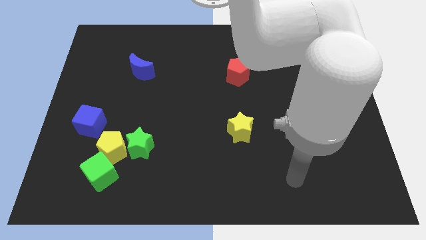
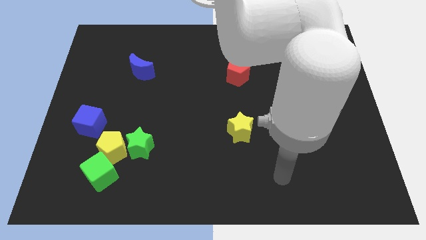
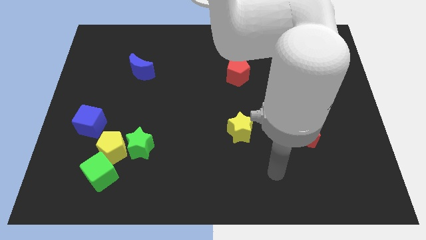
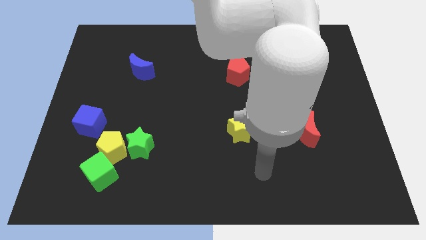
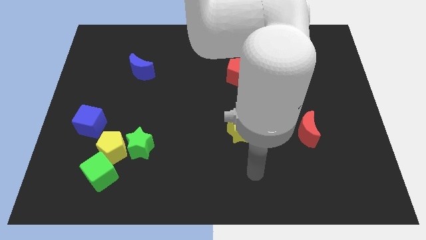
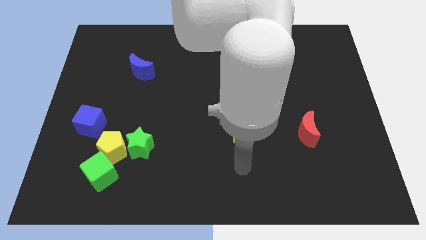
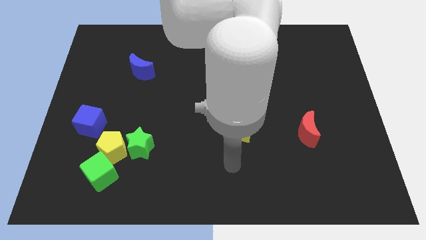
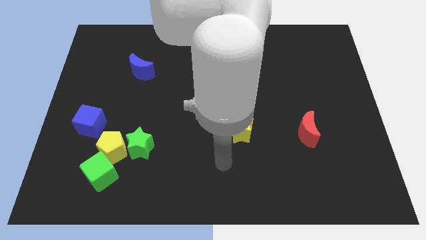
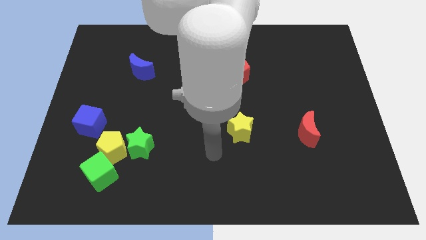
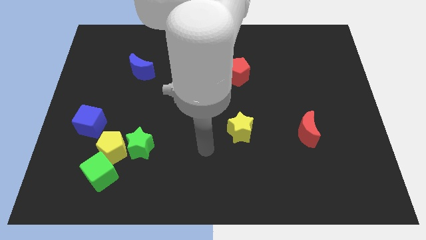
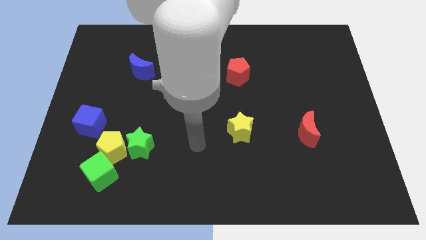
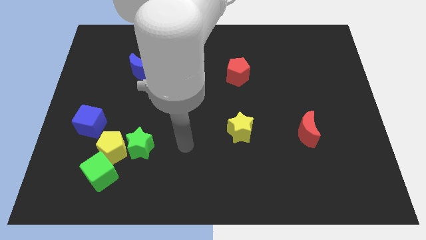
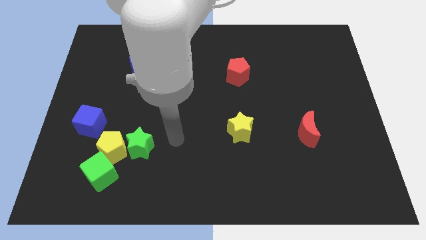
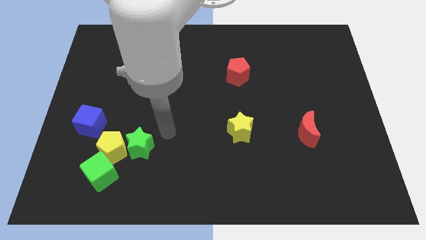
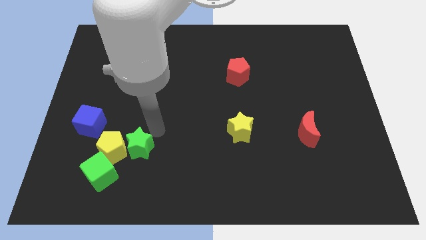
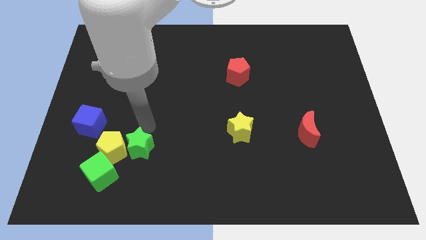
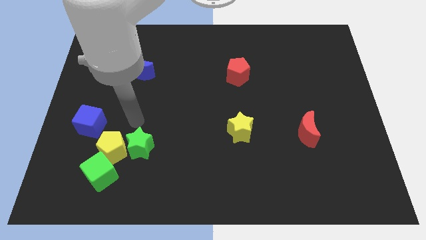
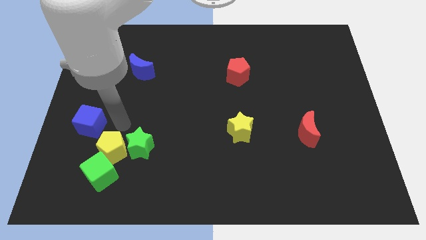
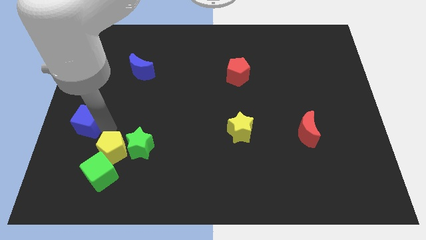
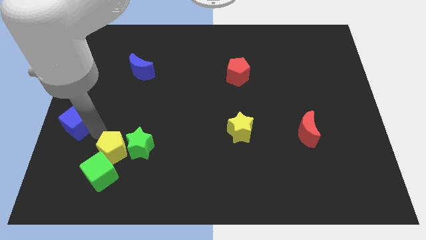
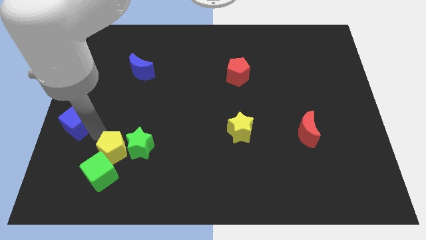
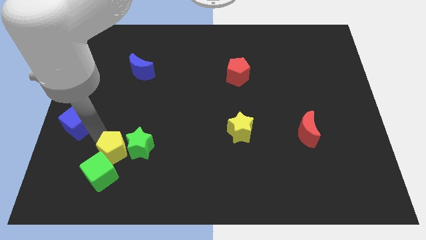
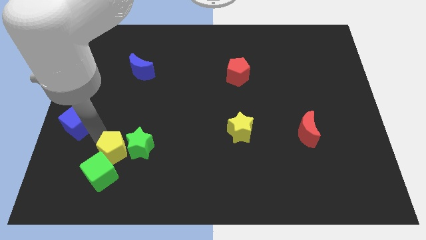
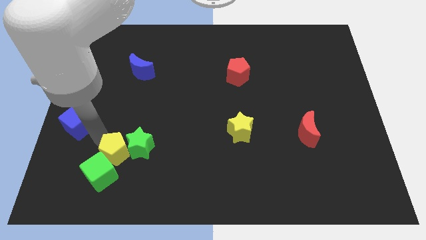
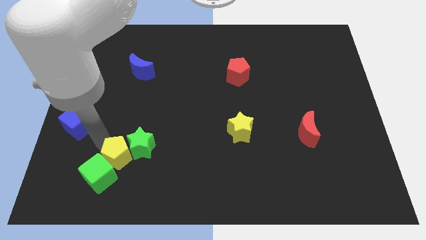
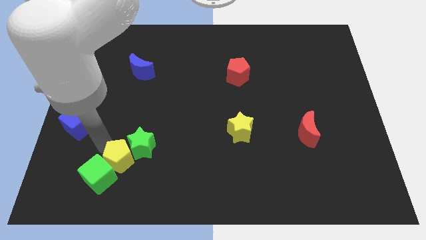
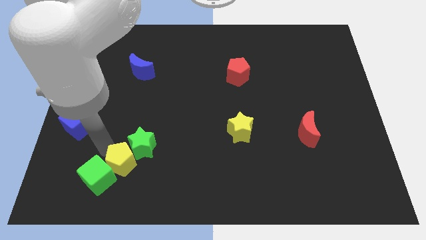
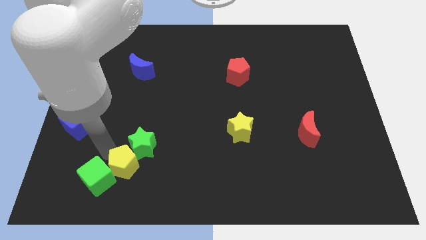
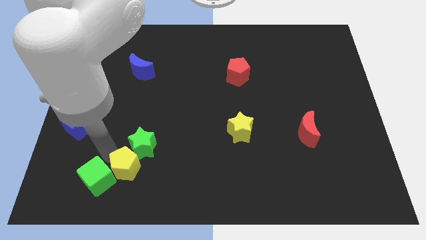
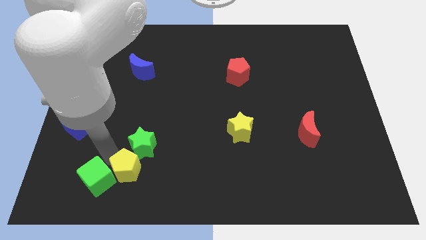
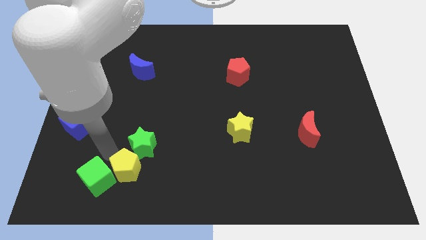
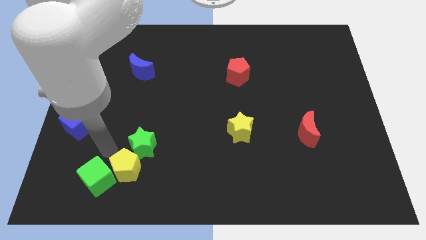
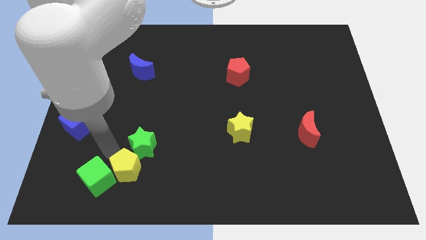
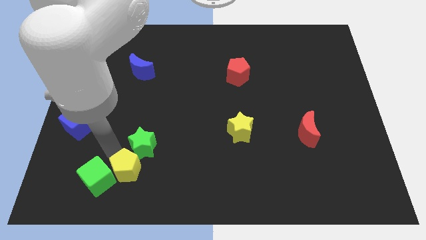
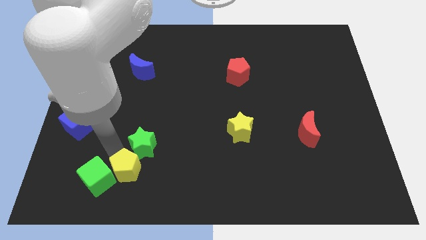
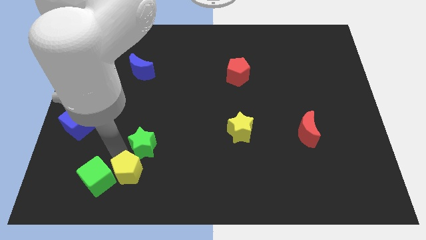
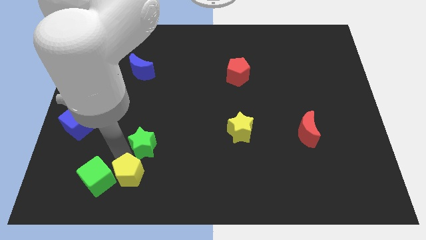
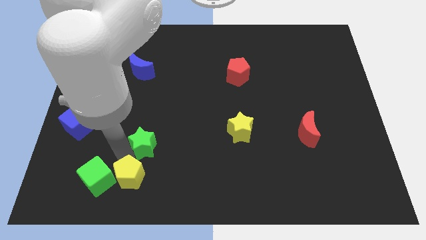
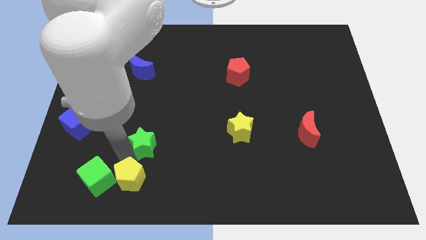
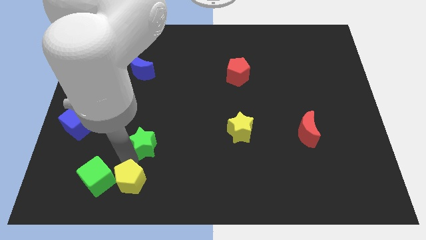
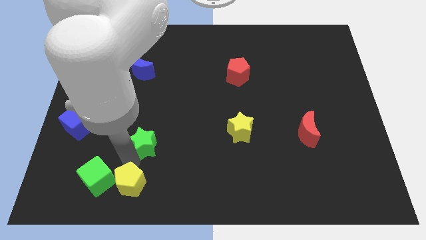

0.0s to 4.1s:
separate the yellow pentagon from the clump

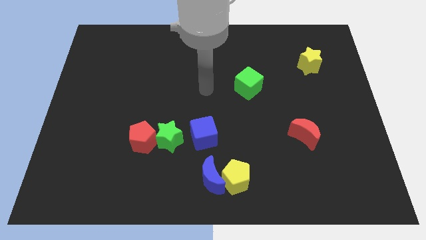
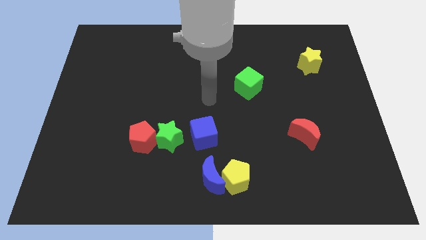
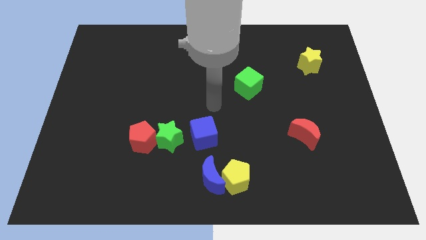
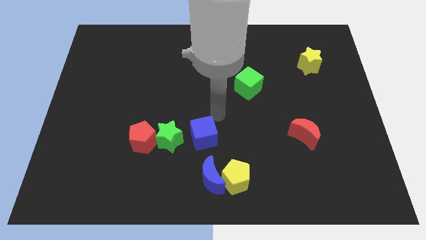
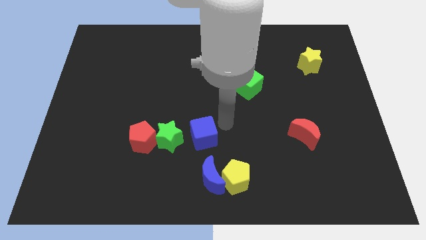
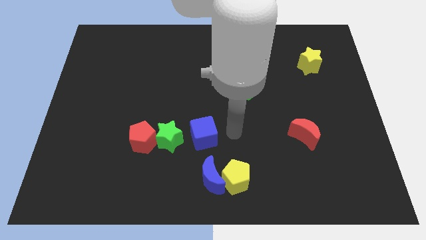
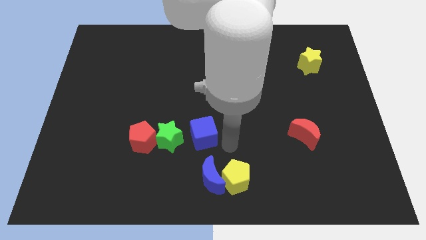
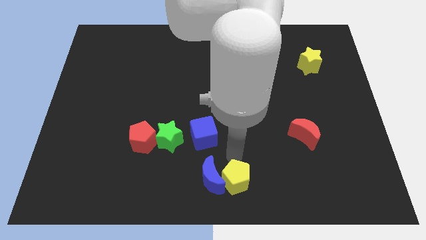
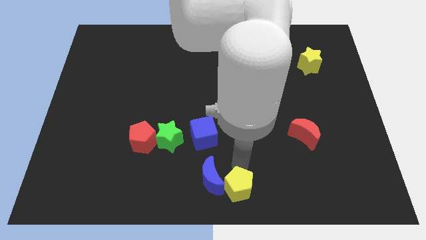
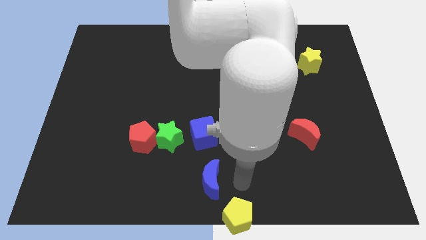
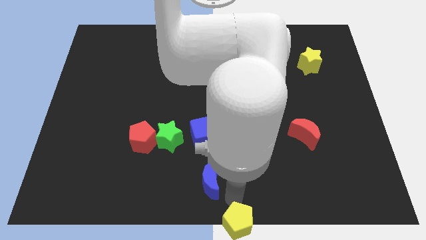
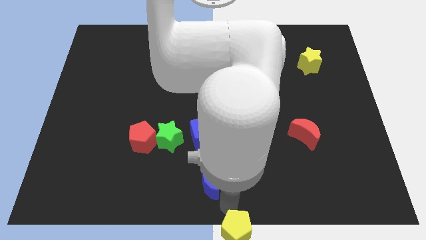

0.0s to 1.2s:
move the blue moon away from the yellow pentagon

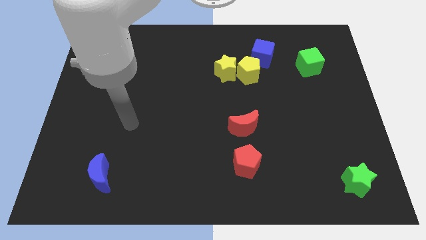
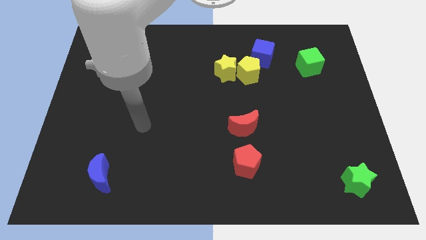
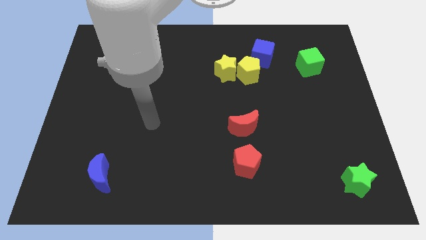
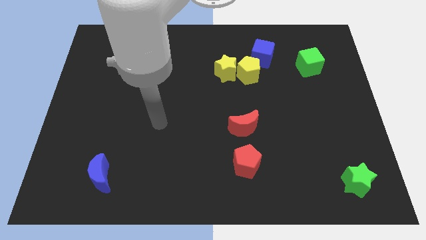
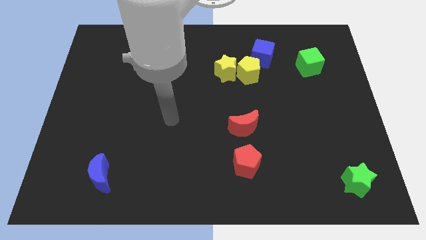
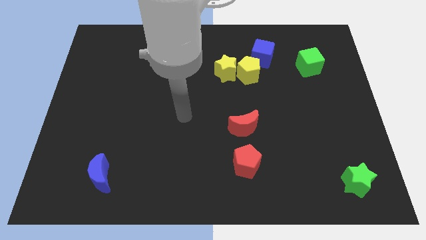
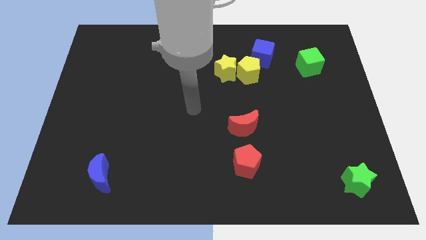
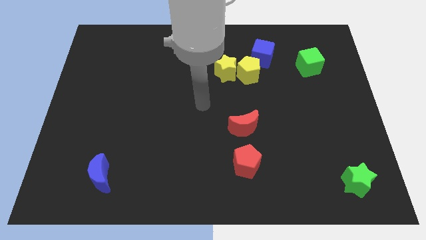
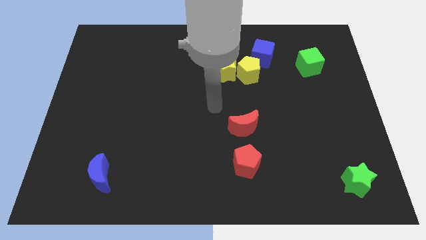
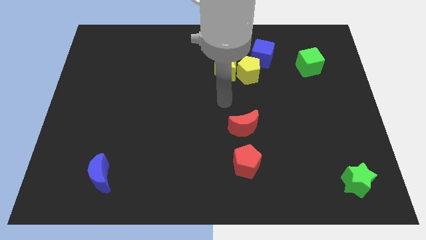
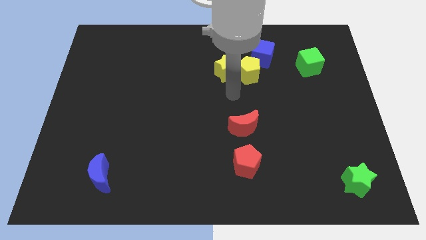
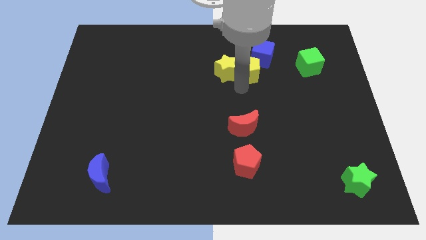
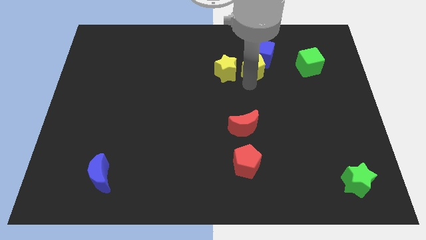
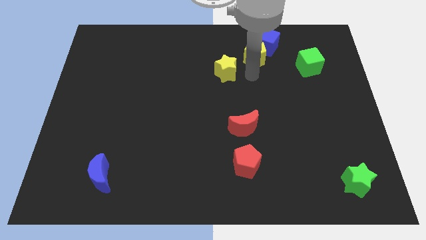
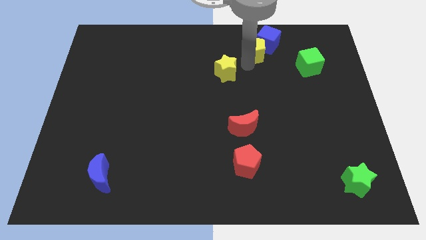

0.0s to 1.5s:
separate the yellow star from the yellow pentagon

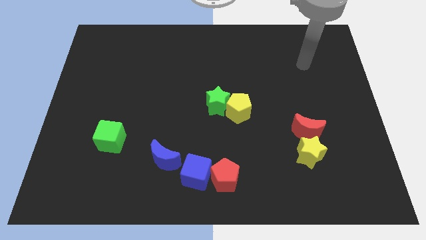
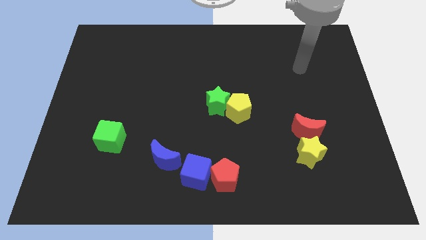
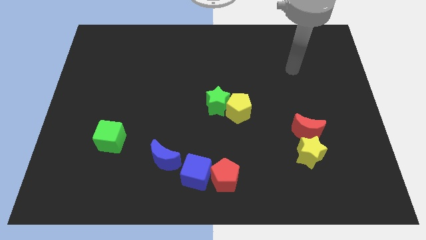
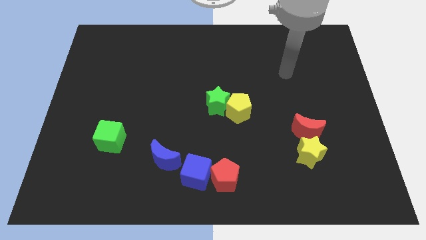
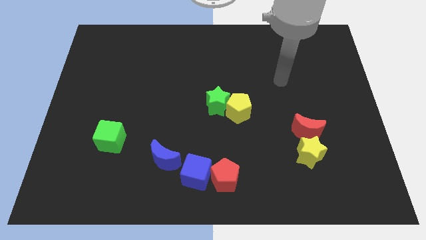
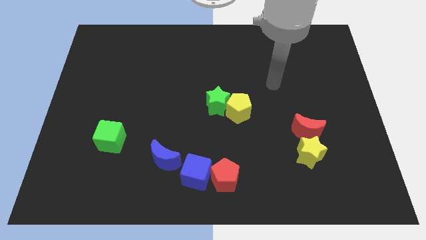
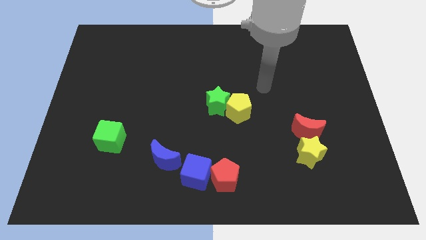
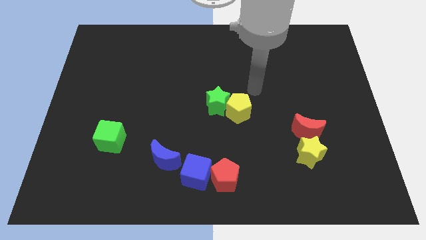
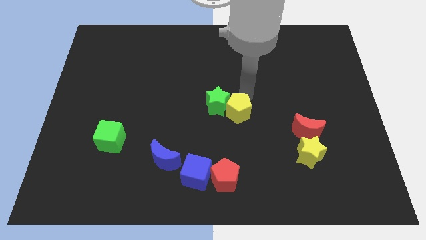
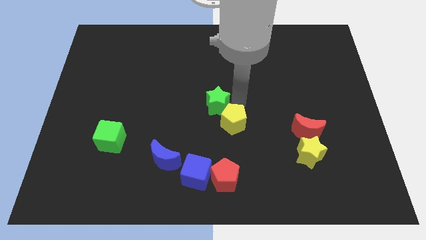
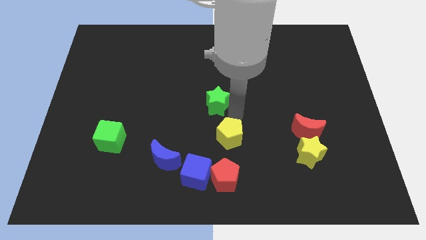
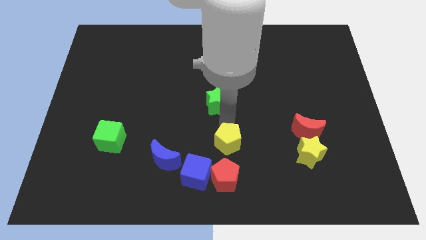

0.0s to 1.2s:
move the green star away from the yellow pentagon

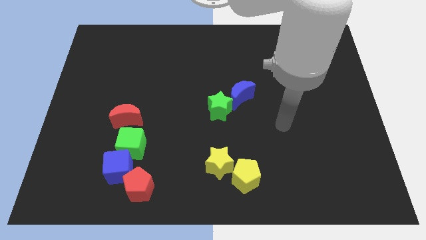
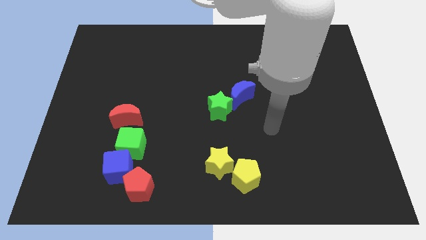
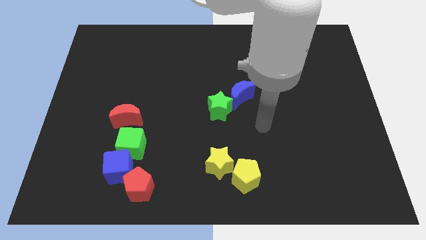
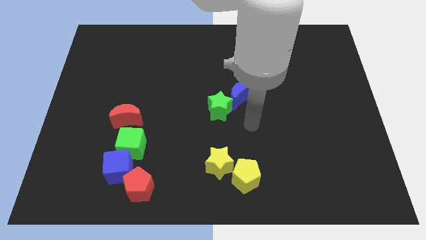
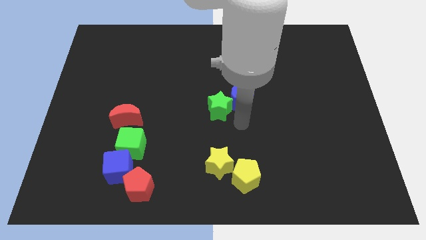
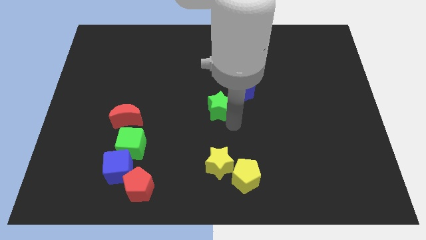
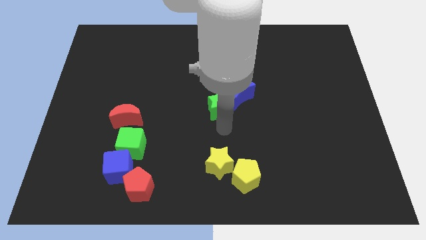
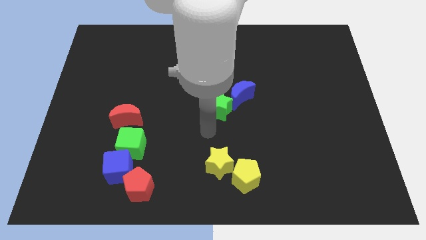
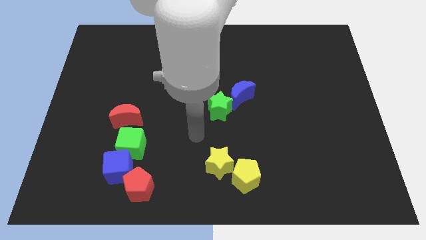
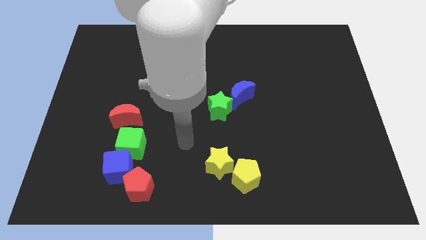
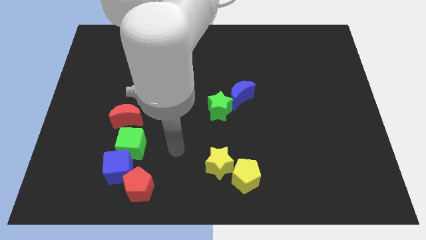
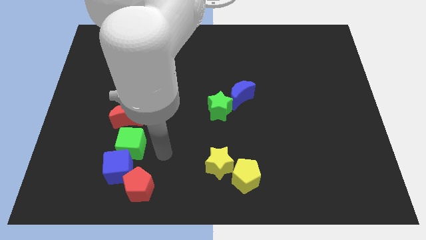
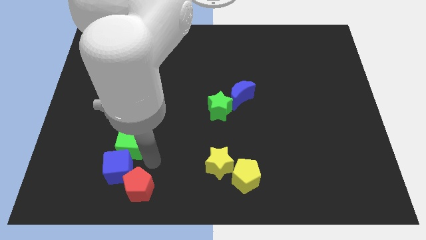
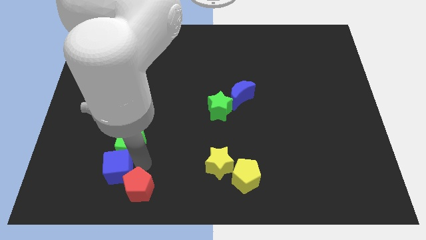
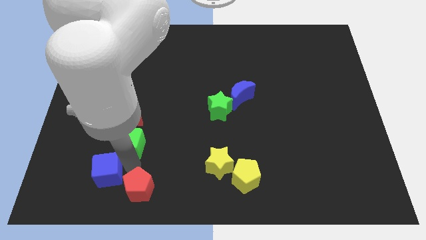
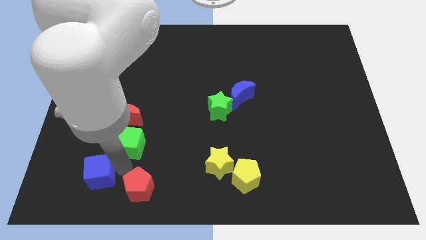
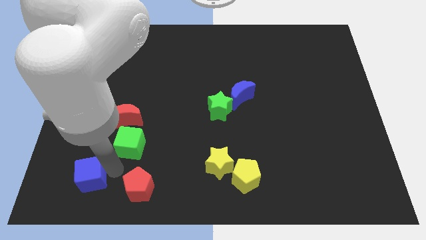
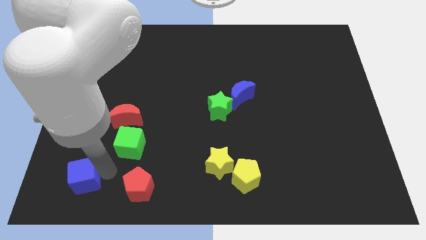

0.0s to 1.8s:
move the blue cube away from the green cube and red pentagon
